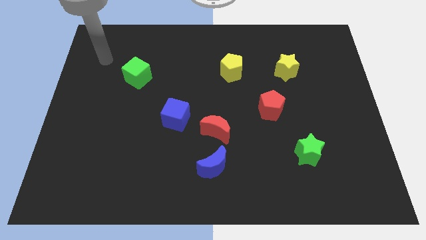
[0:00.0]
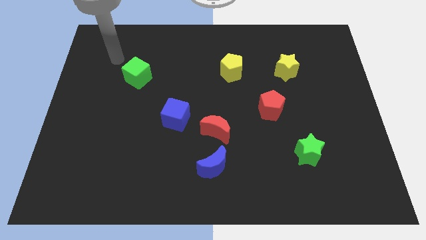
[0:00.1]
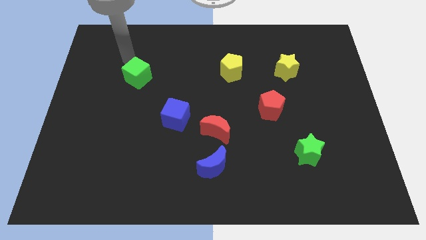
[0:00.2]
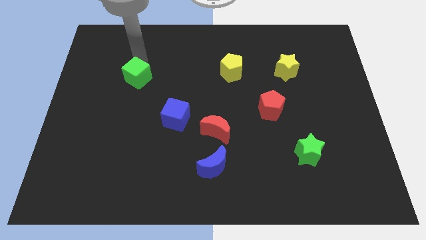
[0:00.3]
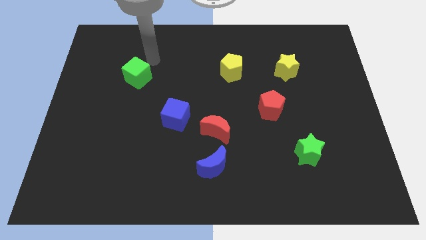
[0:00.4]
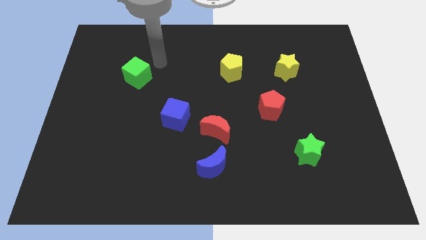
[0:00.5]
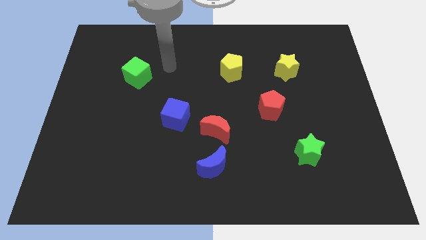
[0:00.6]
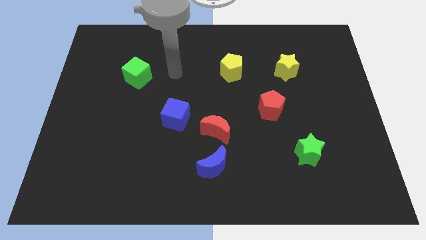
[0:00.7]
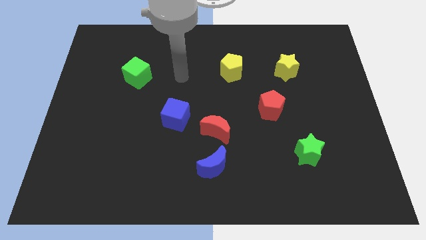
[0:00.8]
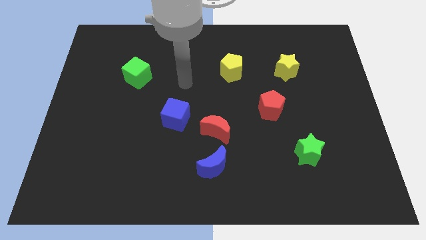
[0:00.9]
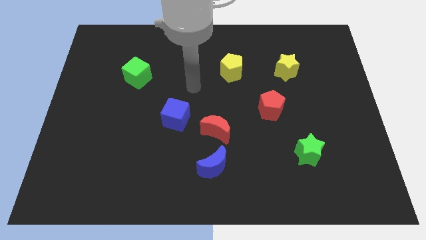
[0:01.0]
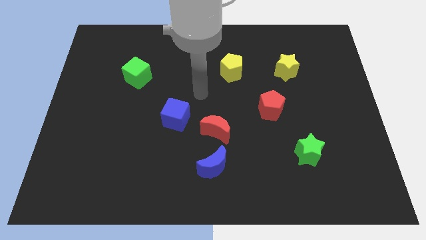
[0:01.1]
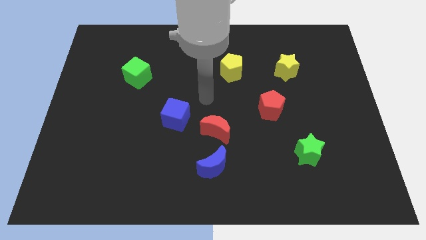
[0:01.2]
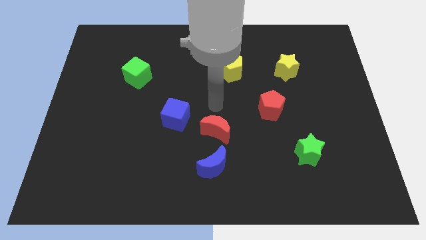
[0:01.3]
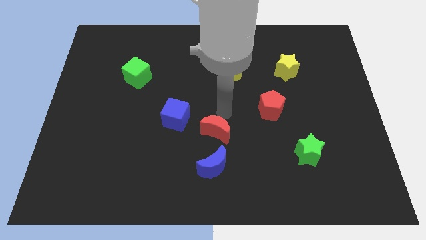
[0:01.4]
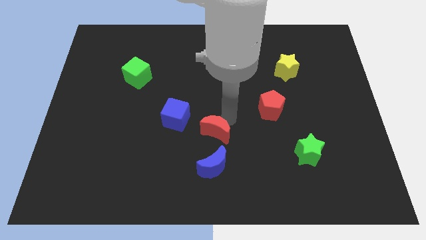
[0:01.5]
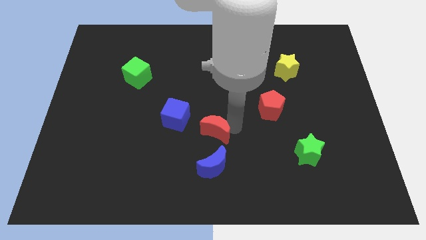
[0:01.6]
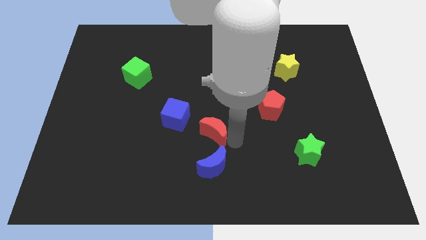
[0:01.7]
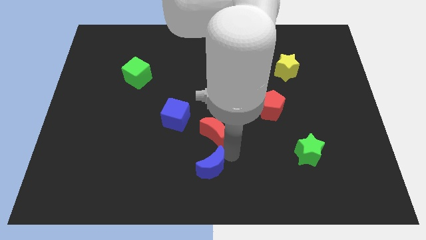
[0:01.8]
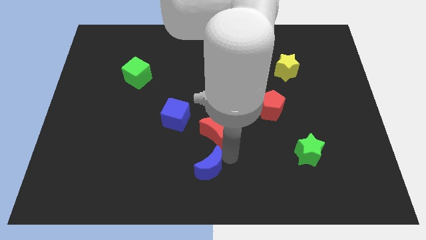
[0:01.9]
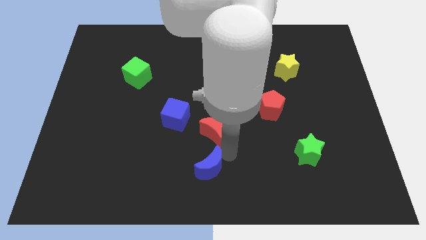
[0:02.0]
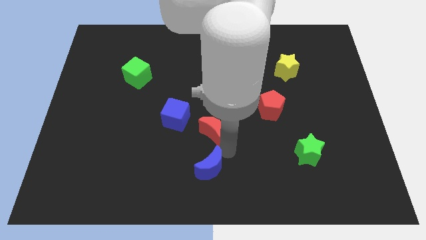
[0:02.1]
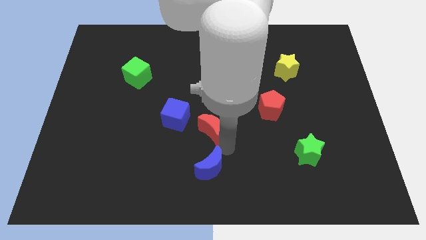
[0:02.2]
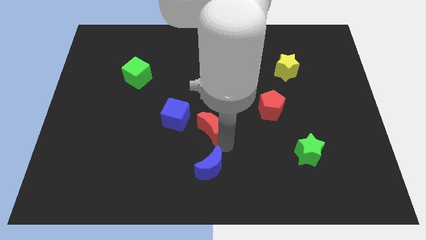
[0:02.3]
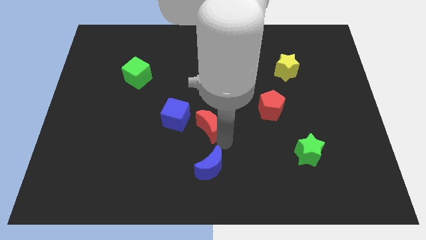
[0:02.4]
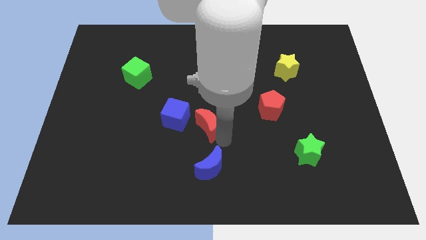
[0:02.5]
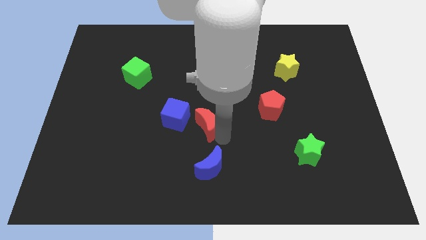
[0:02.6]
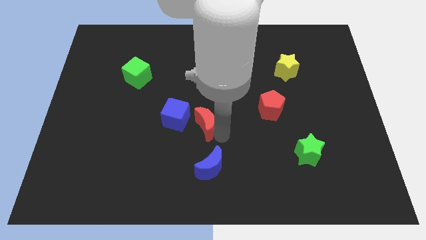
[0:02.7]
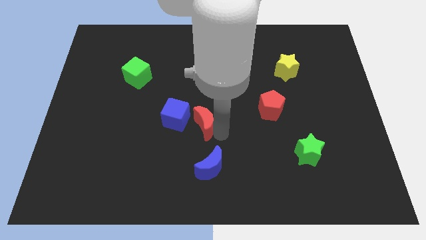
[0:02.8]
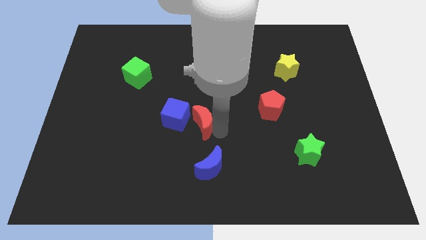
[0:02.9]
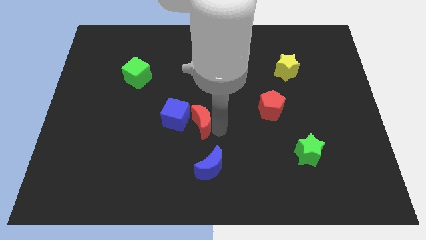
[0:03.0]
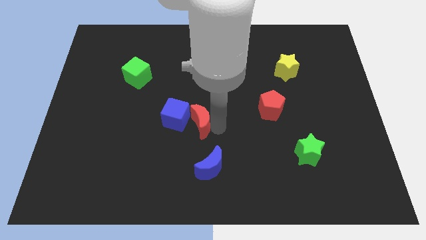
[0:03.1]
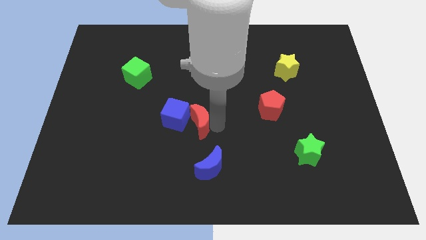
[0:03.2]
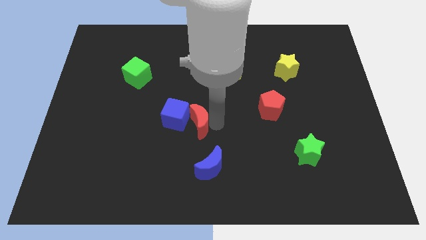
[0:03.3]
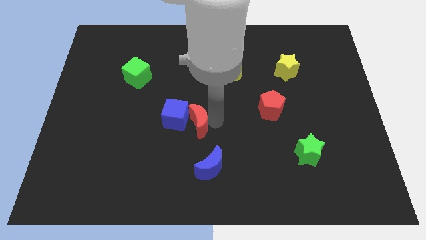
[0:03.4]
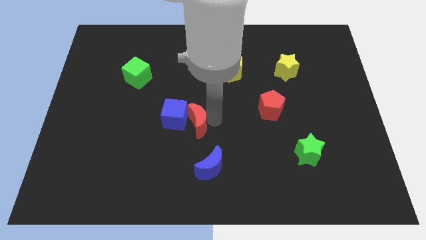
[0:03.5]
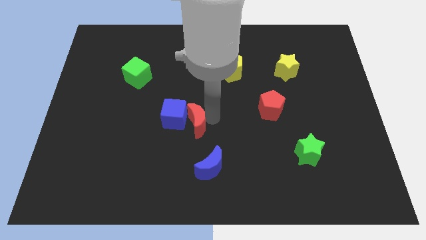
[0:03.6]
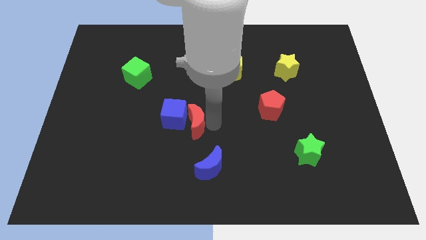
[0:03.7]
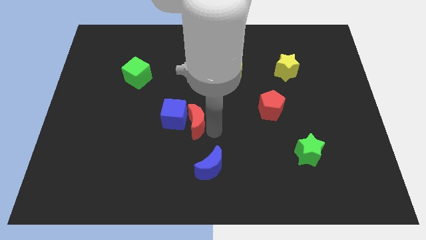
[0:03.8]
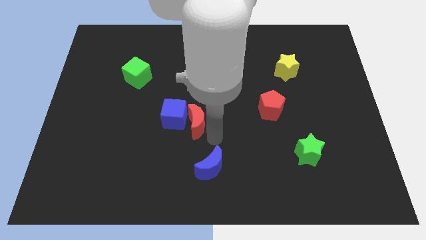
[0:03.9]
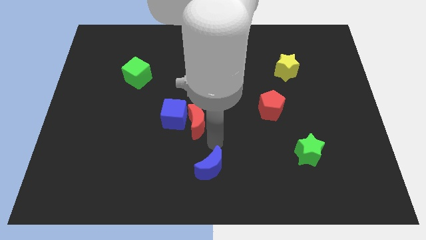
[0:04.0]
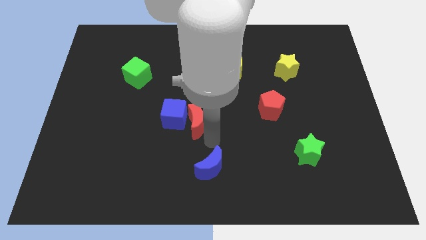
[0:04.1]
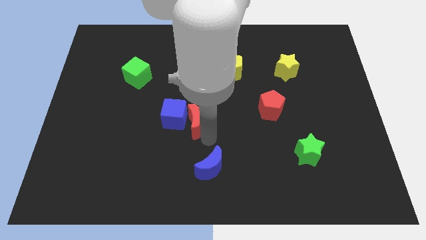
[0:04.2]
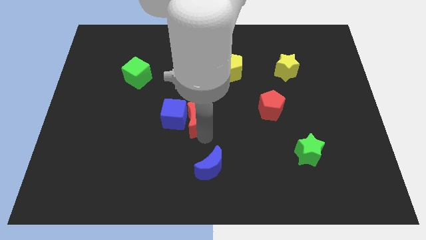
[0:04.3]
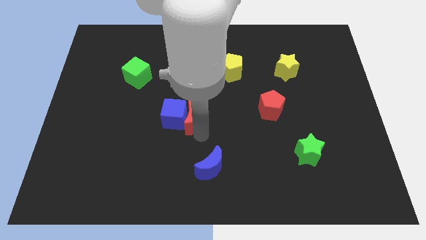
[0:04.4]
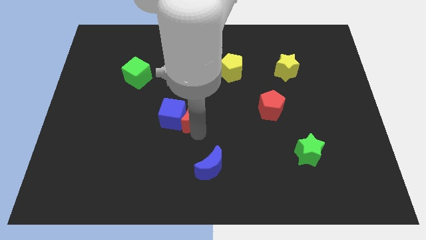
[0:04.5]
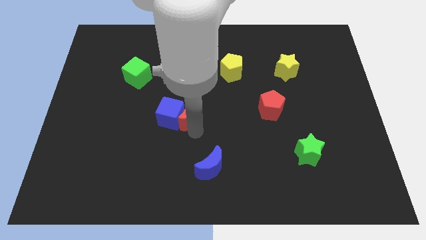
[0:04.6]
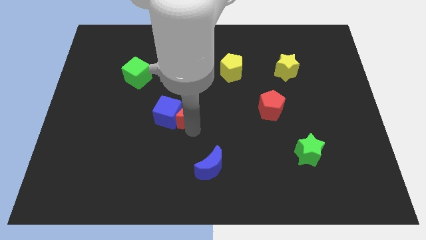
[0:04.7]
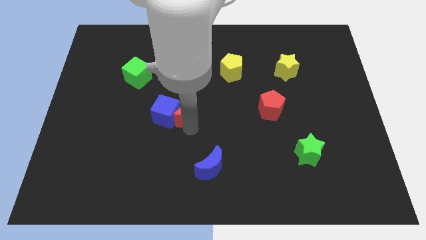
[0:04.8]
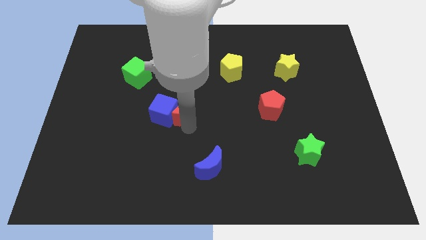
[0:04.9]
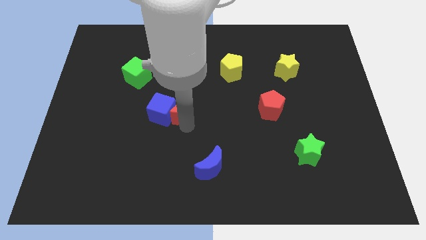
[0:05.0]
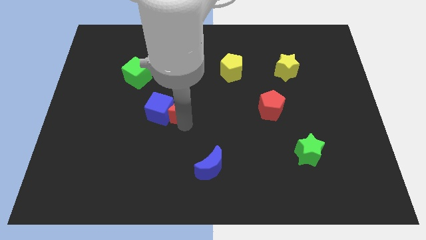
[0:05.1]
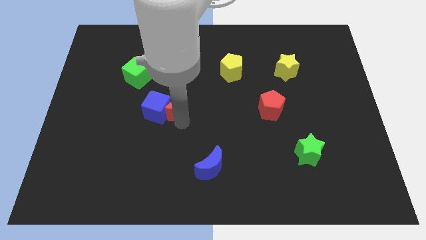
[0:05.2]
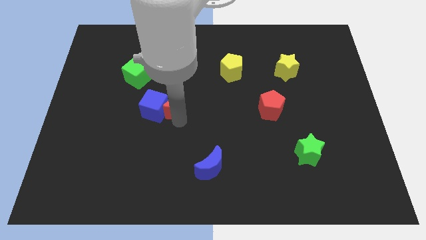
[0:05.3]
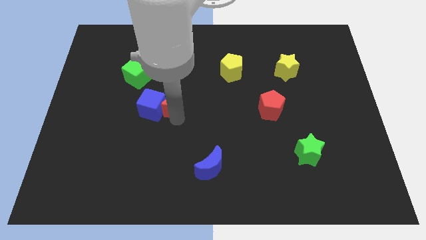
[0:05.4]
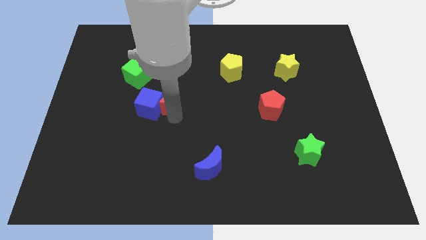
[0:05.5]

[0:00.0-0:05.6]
put the red moon to the bottom right of the green cube

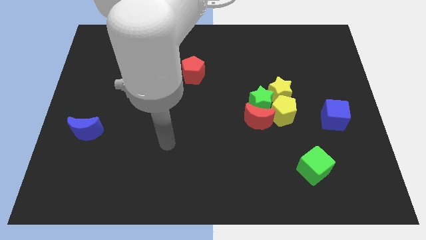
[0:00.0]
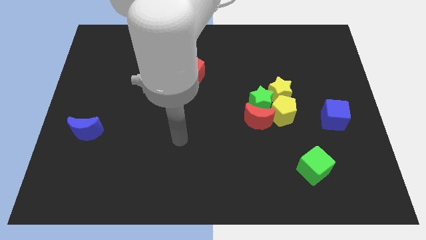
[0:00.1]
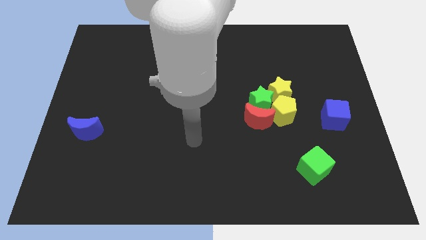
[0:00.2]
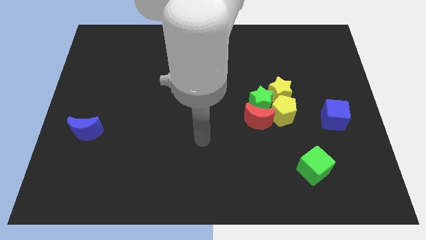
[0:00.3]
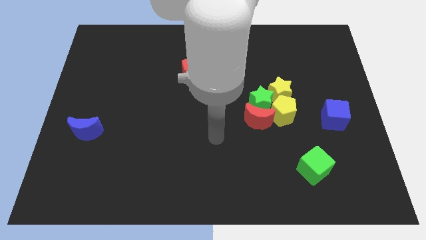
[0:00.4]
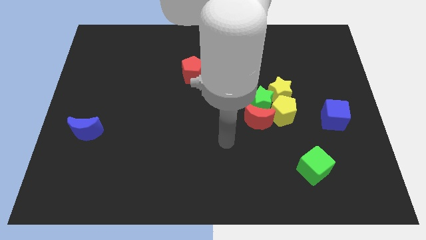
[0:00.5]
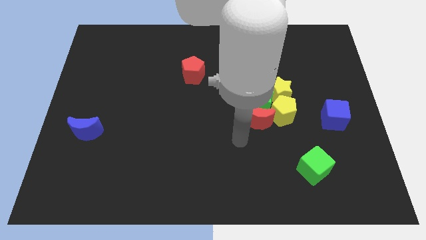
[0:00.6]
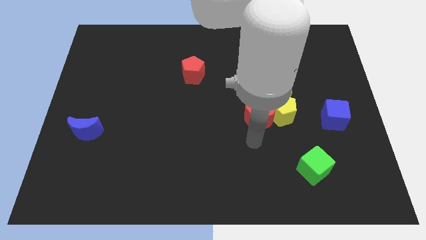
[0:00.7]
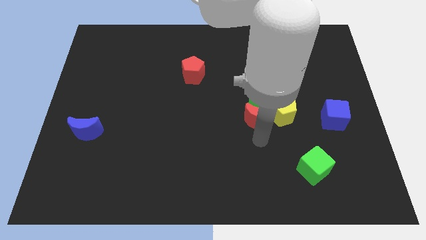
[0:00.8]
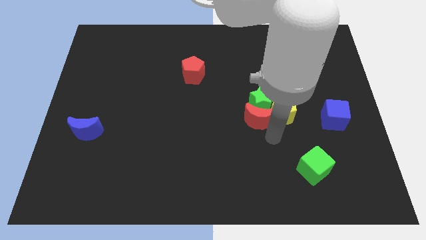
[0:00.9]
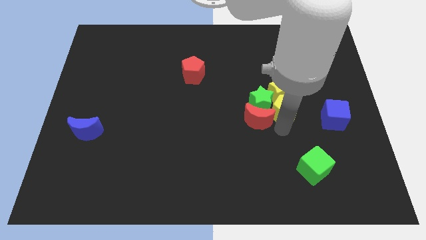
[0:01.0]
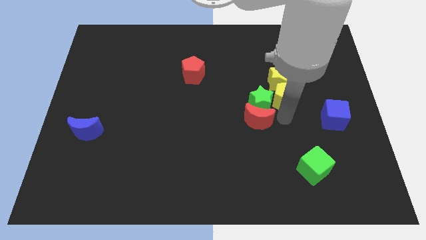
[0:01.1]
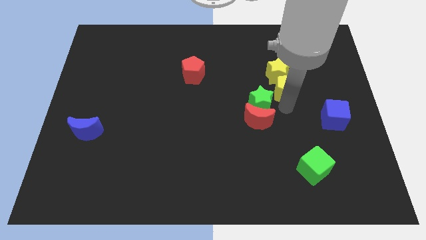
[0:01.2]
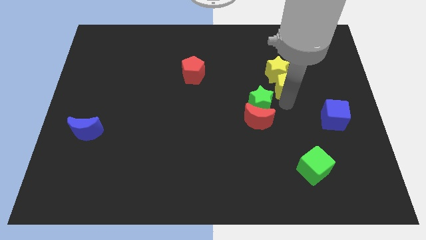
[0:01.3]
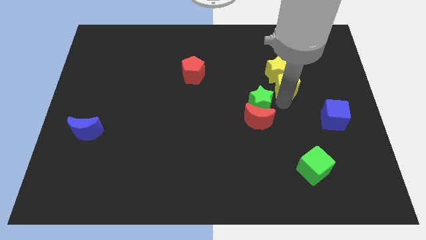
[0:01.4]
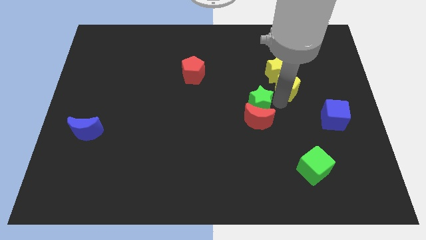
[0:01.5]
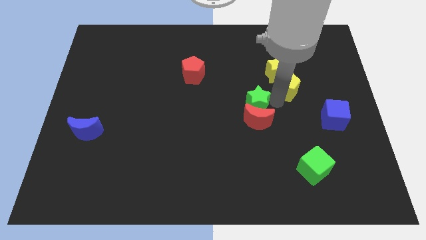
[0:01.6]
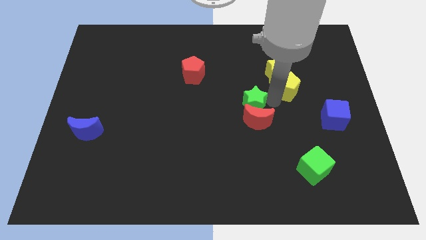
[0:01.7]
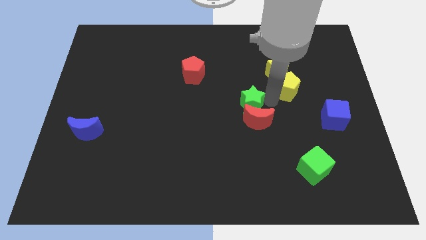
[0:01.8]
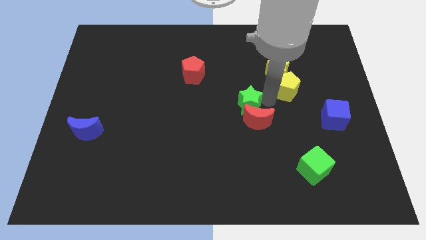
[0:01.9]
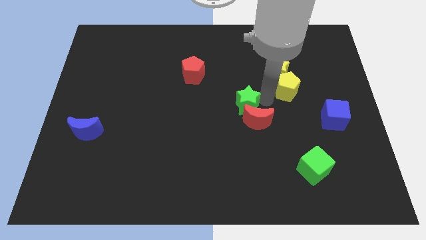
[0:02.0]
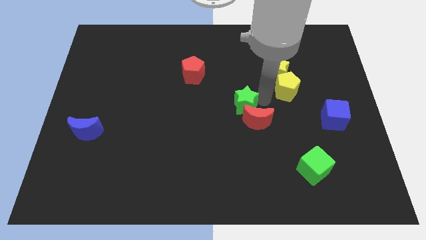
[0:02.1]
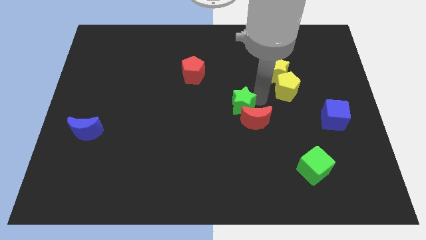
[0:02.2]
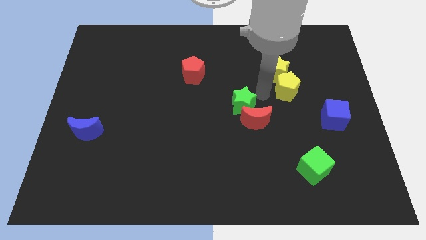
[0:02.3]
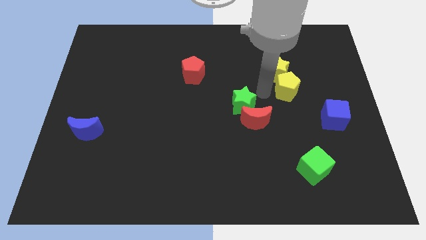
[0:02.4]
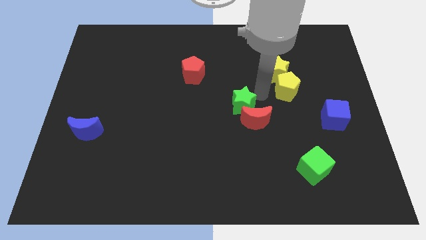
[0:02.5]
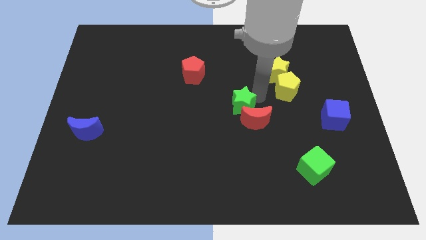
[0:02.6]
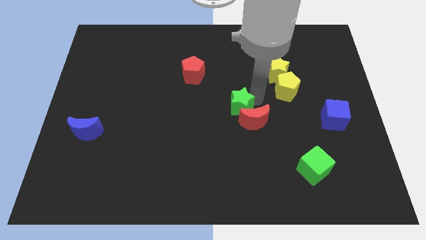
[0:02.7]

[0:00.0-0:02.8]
push the green star to the left side of the red moon
